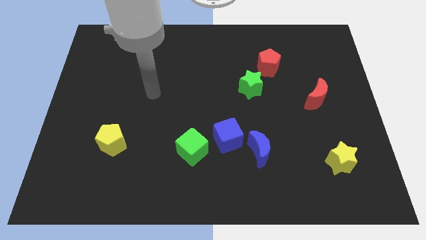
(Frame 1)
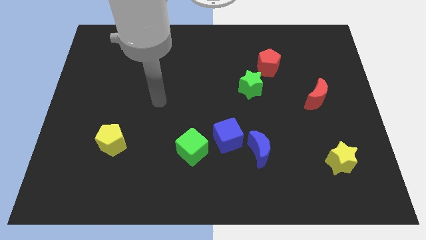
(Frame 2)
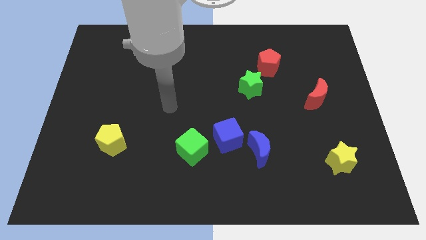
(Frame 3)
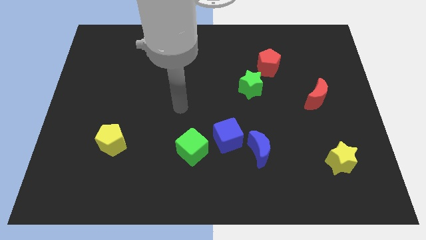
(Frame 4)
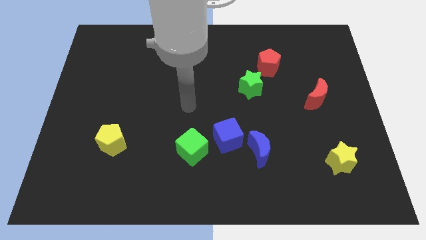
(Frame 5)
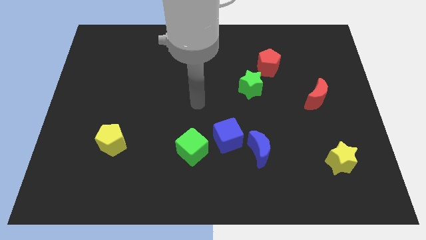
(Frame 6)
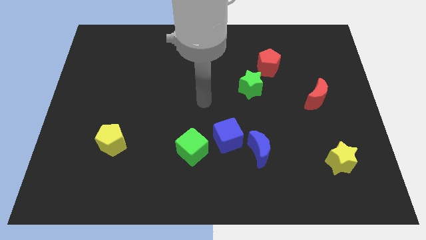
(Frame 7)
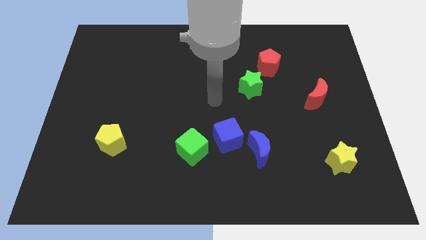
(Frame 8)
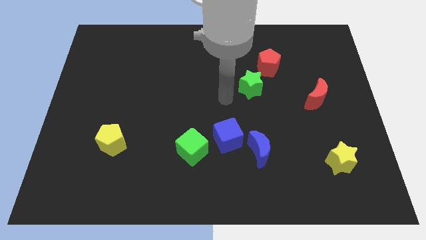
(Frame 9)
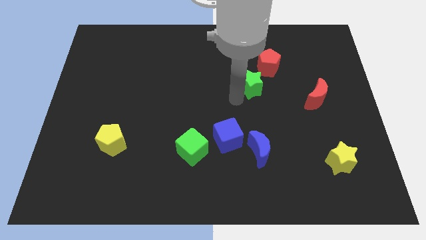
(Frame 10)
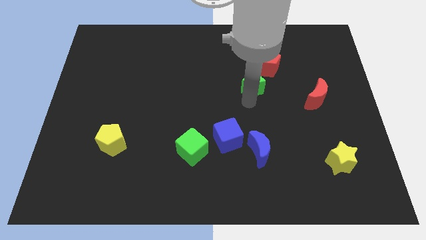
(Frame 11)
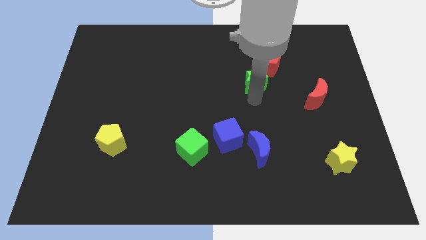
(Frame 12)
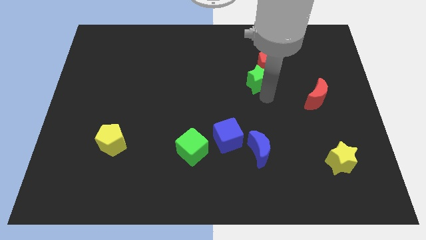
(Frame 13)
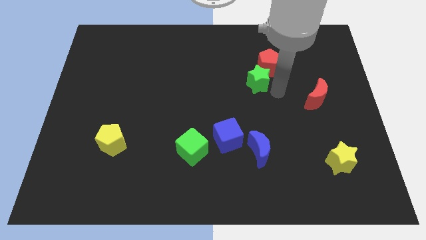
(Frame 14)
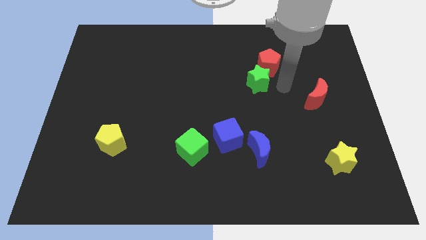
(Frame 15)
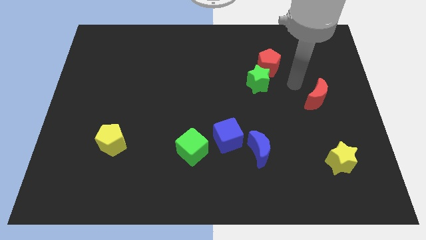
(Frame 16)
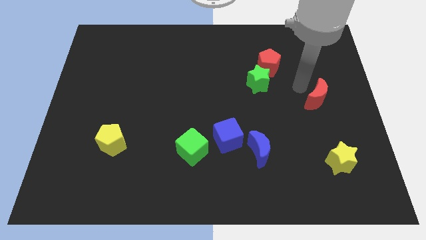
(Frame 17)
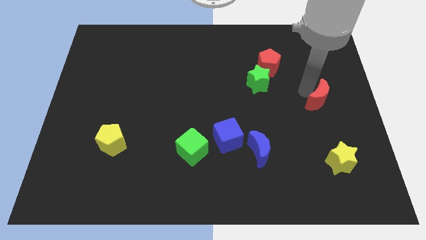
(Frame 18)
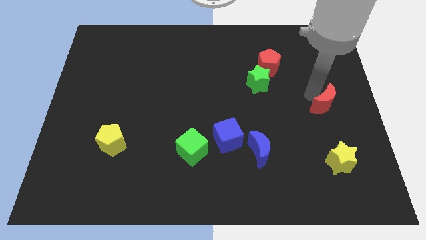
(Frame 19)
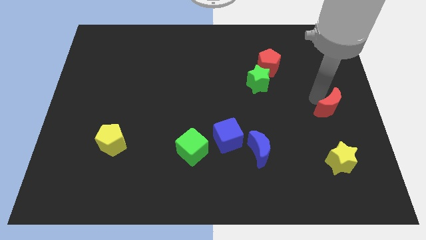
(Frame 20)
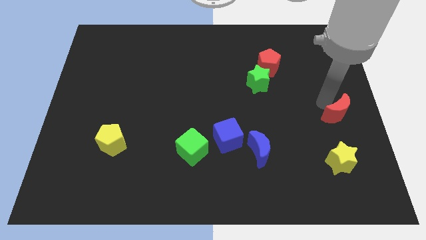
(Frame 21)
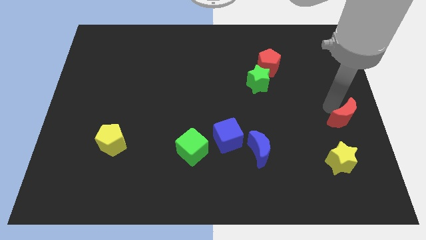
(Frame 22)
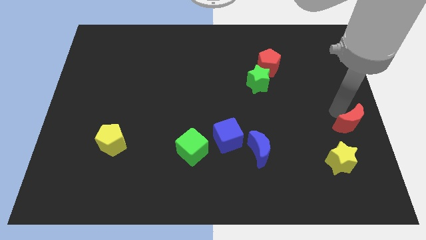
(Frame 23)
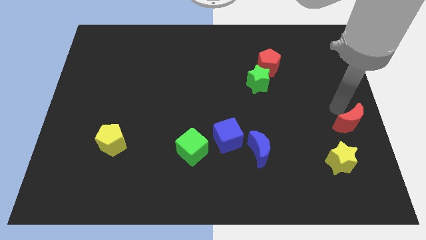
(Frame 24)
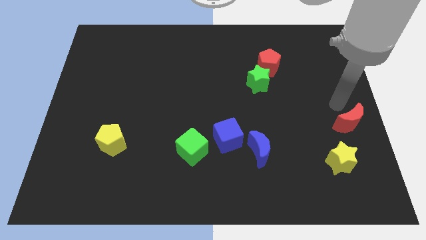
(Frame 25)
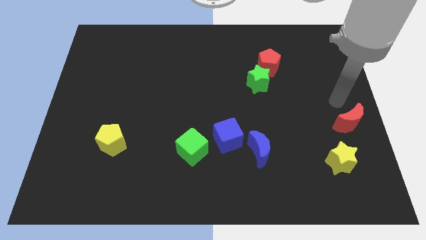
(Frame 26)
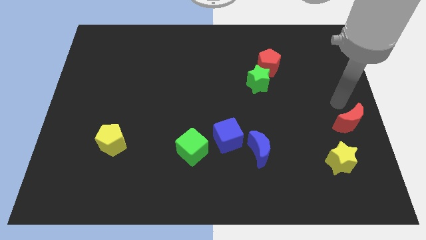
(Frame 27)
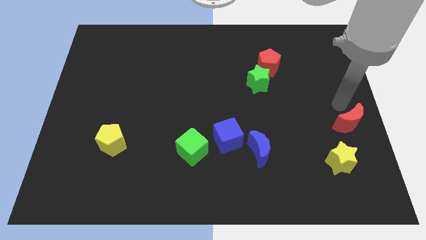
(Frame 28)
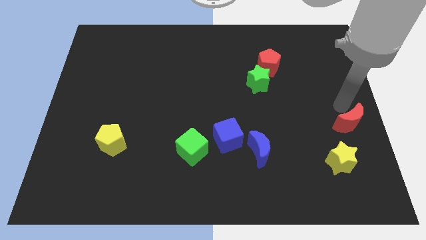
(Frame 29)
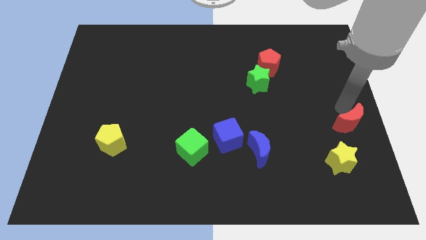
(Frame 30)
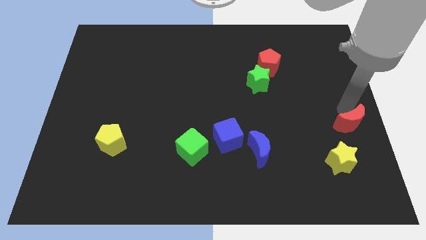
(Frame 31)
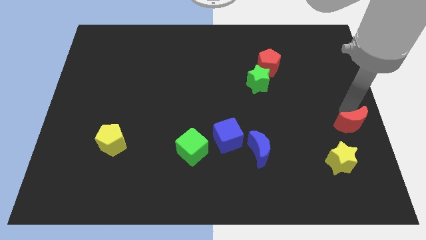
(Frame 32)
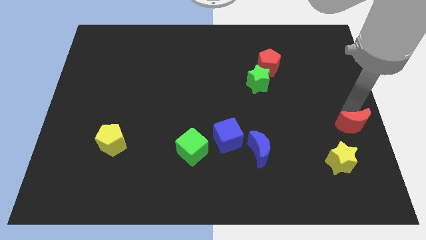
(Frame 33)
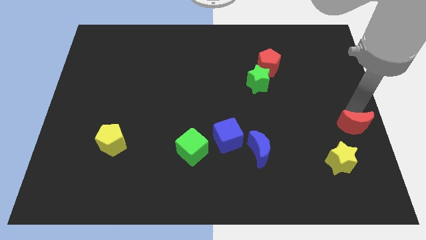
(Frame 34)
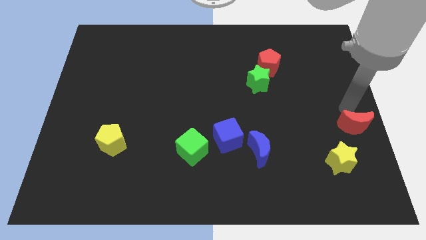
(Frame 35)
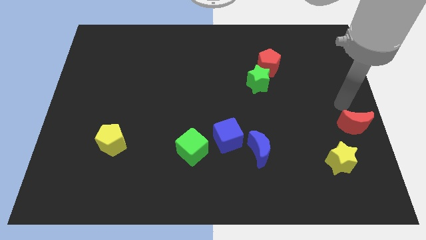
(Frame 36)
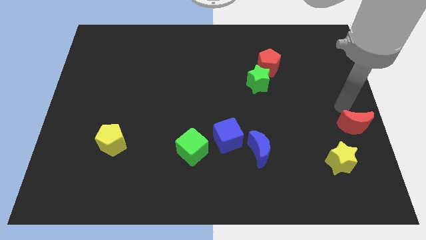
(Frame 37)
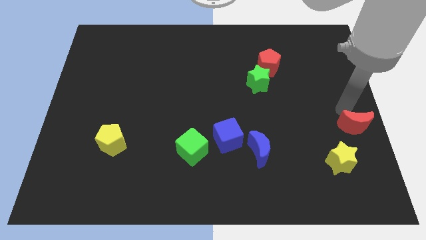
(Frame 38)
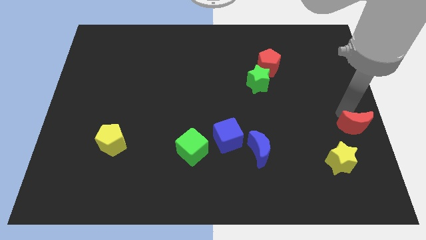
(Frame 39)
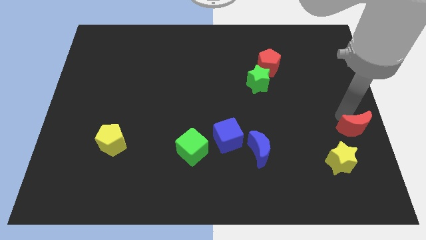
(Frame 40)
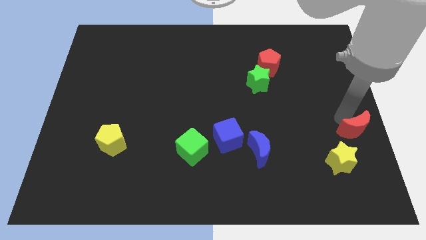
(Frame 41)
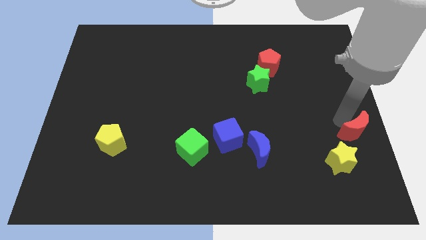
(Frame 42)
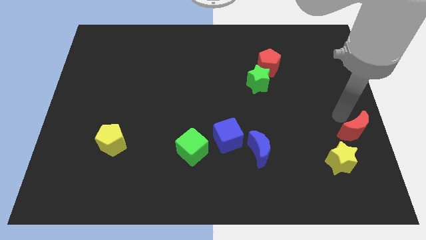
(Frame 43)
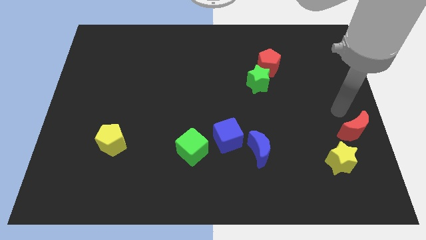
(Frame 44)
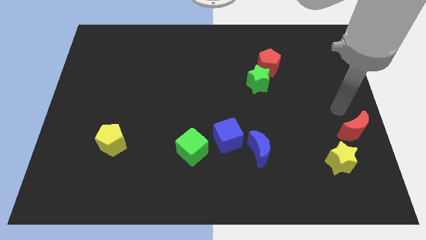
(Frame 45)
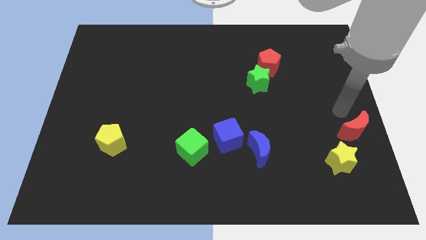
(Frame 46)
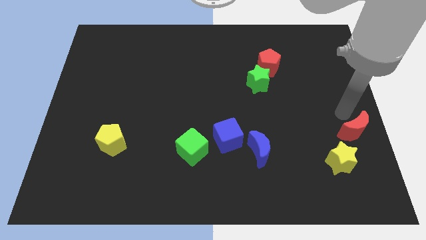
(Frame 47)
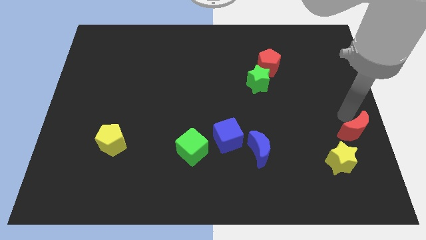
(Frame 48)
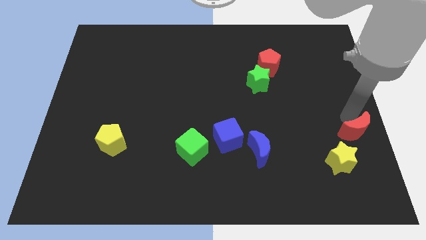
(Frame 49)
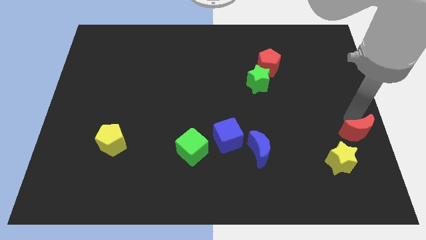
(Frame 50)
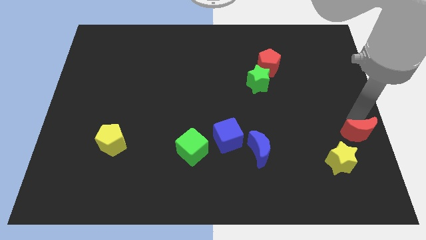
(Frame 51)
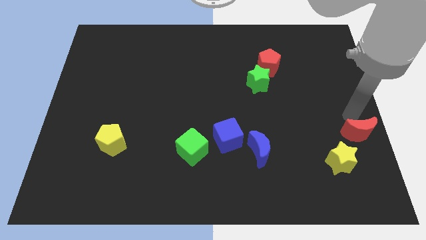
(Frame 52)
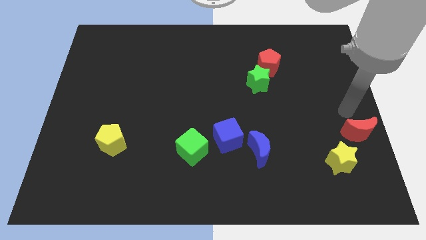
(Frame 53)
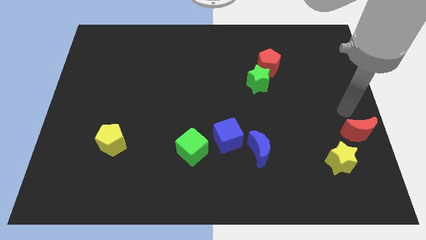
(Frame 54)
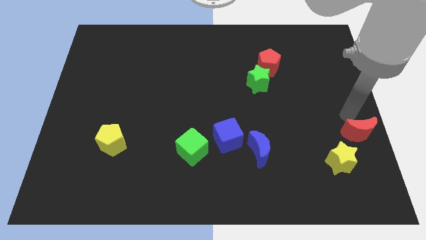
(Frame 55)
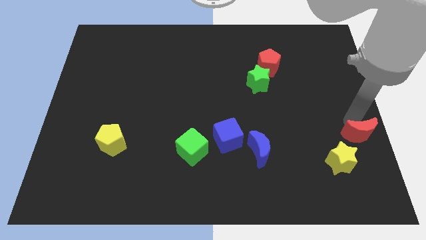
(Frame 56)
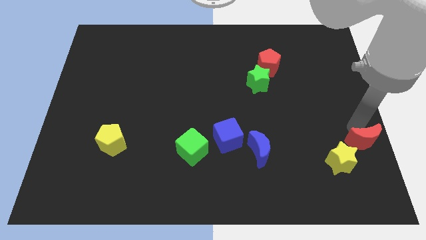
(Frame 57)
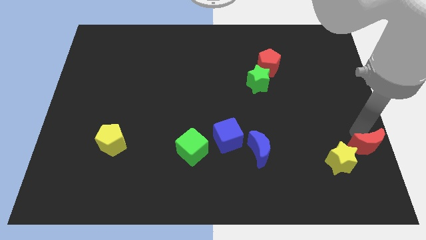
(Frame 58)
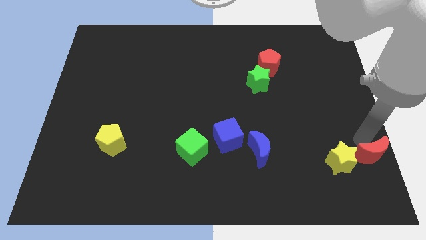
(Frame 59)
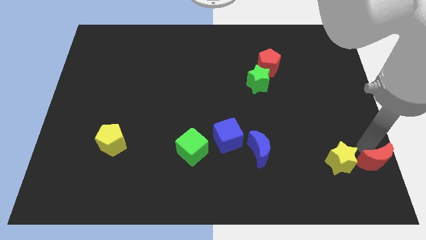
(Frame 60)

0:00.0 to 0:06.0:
slide the red moon to the bottom right corner

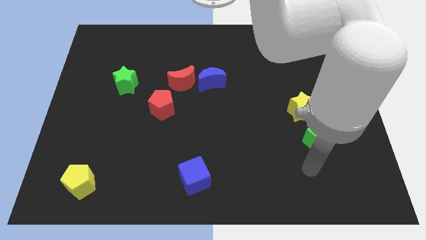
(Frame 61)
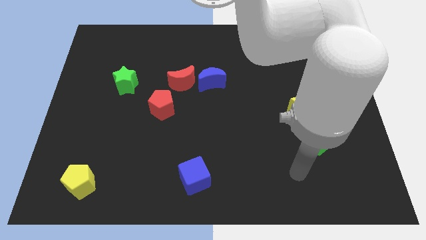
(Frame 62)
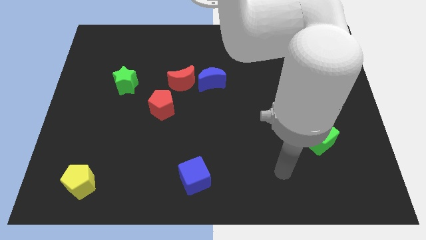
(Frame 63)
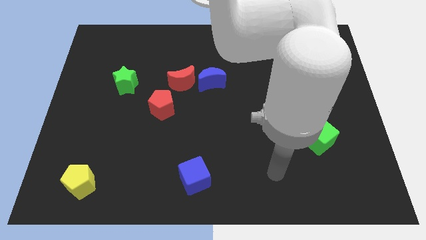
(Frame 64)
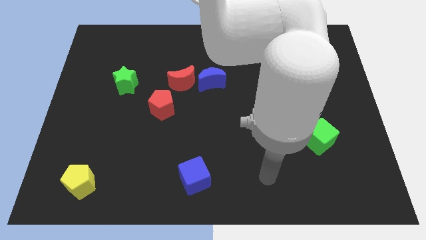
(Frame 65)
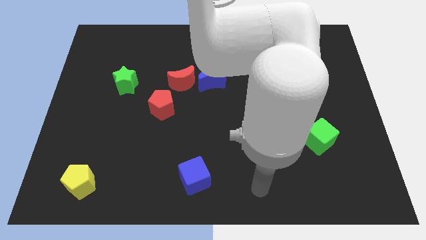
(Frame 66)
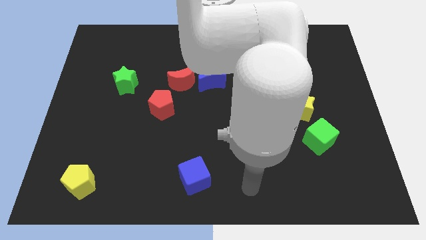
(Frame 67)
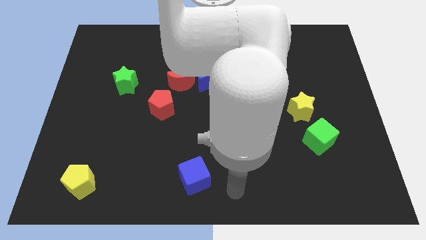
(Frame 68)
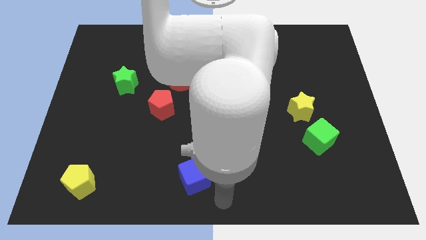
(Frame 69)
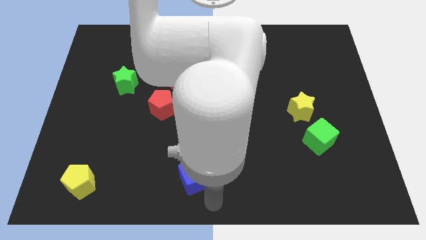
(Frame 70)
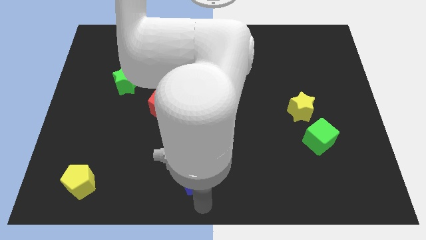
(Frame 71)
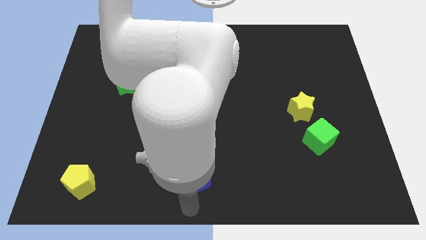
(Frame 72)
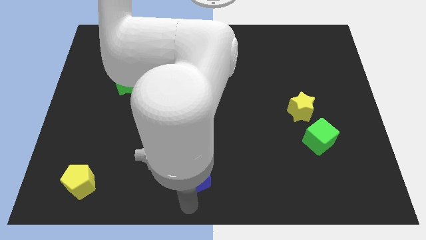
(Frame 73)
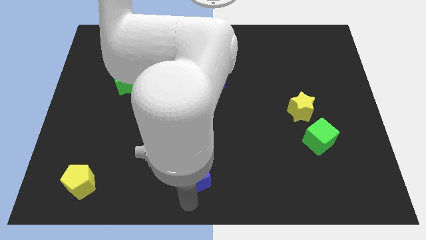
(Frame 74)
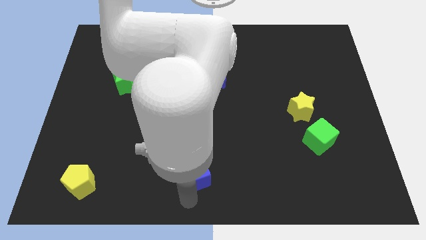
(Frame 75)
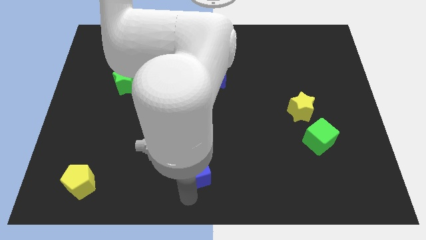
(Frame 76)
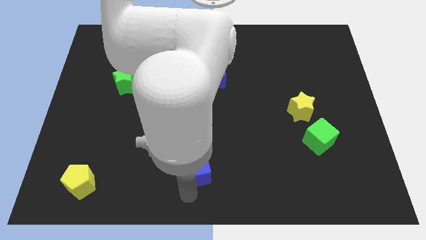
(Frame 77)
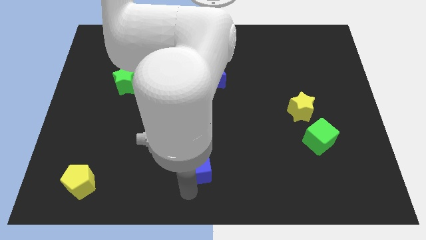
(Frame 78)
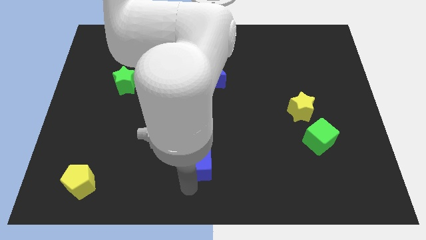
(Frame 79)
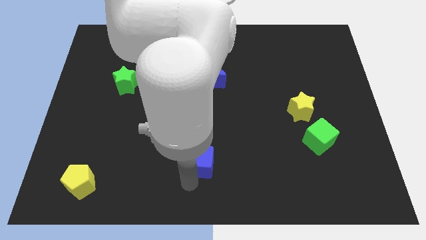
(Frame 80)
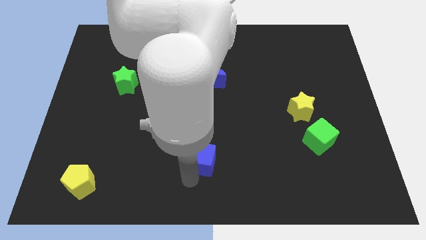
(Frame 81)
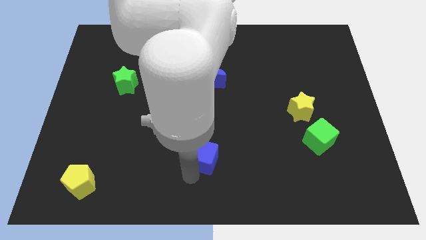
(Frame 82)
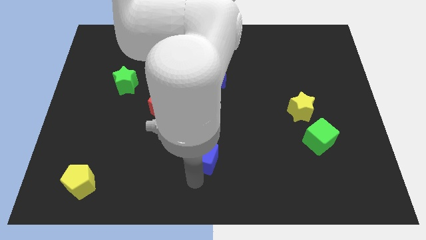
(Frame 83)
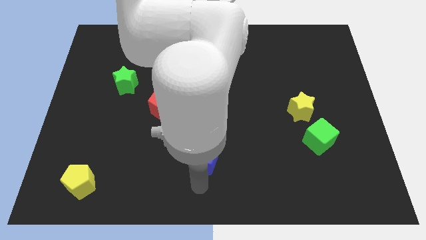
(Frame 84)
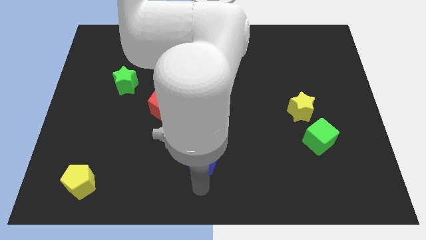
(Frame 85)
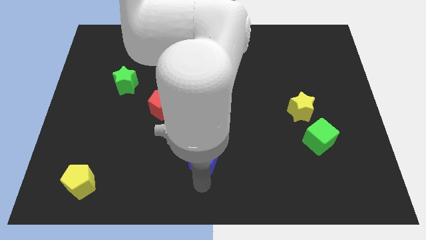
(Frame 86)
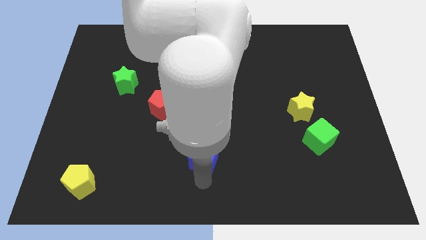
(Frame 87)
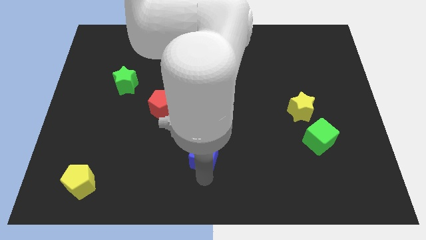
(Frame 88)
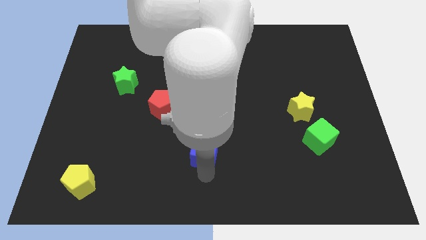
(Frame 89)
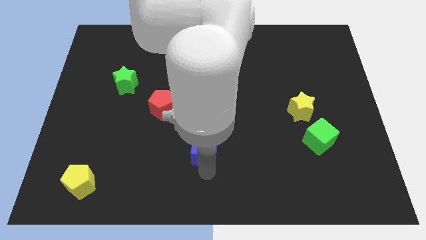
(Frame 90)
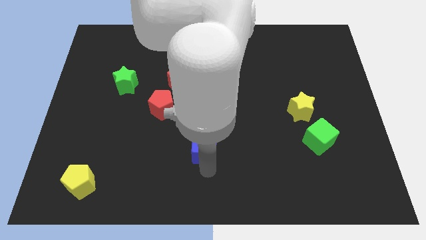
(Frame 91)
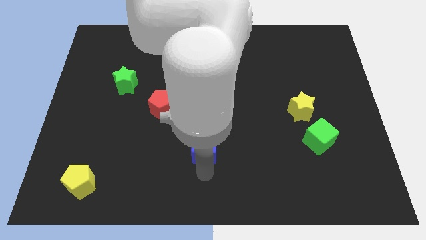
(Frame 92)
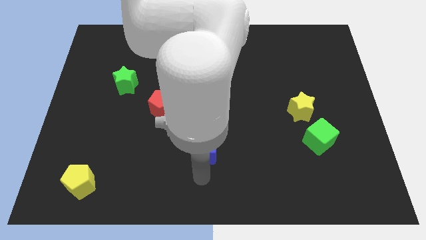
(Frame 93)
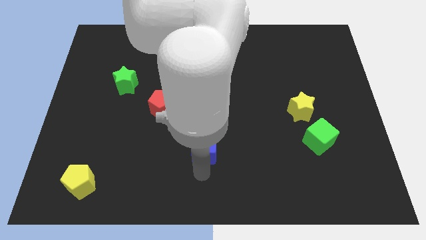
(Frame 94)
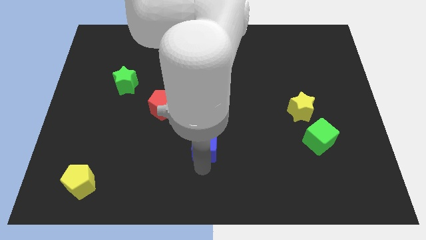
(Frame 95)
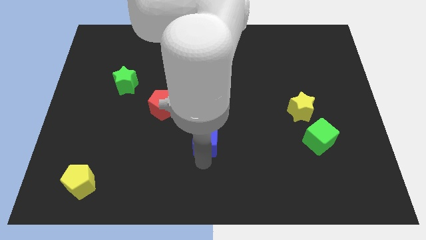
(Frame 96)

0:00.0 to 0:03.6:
push the blue cube to the center
